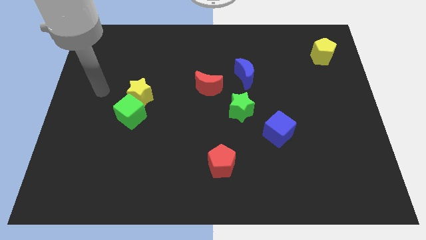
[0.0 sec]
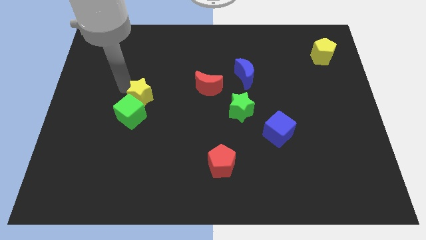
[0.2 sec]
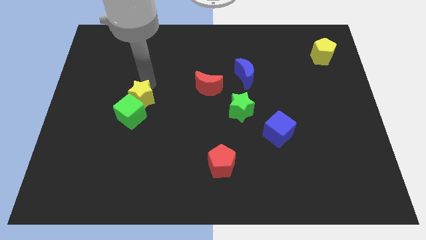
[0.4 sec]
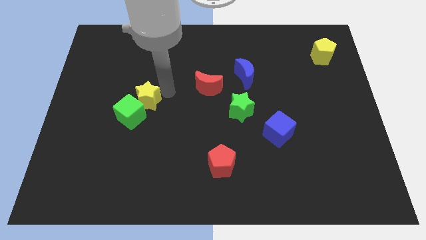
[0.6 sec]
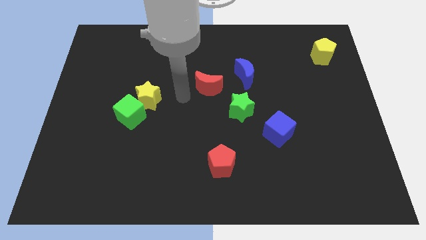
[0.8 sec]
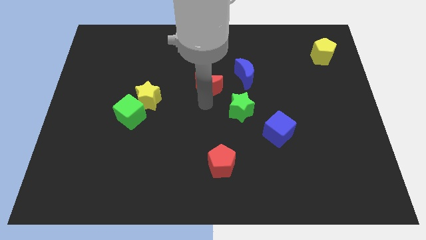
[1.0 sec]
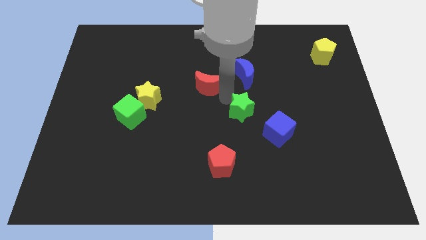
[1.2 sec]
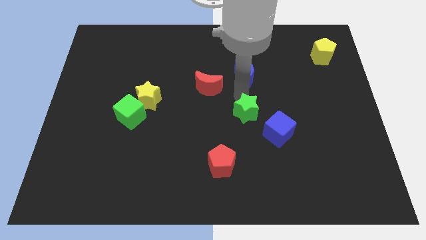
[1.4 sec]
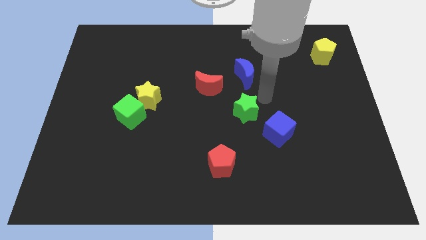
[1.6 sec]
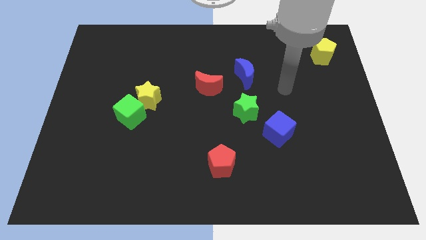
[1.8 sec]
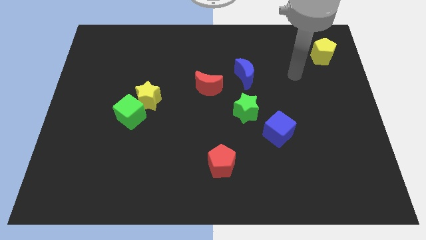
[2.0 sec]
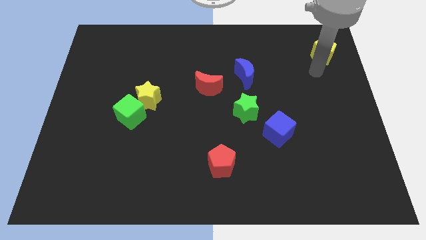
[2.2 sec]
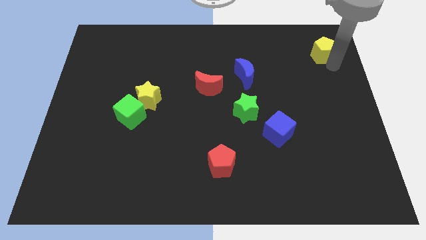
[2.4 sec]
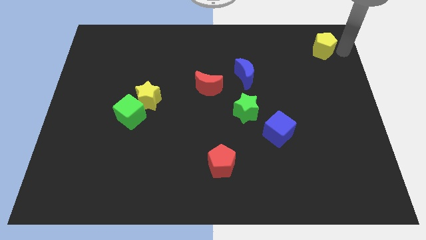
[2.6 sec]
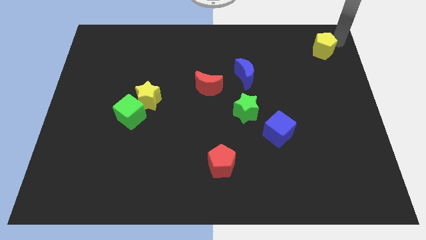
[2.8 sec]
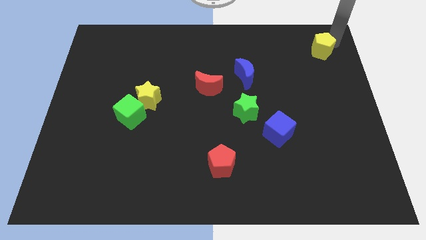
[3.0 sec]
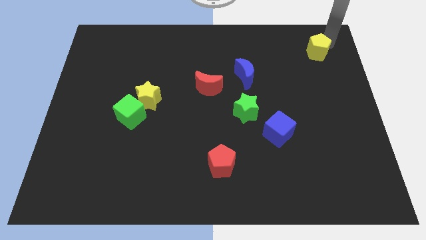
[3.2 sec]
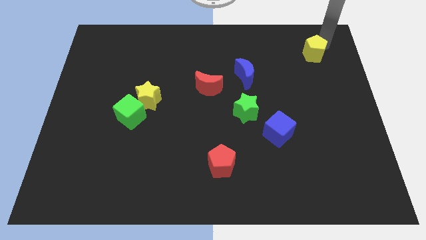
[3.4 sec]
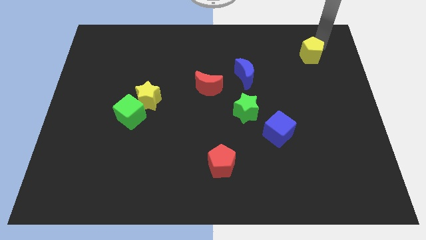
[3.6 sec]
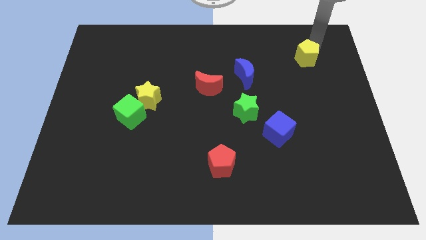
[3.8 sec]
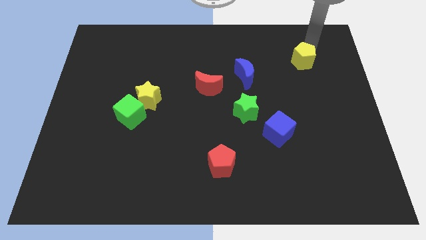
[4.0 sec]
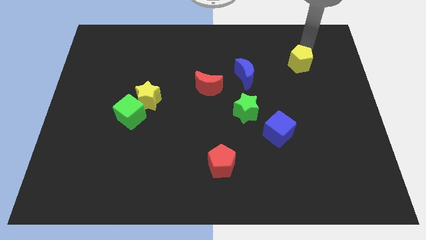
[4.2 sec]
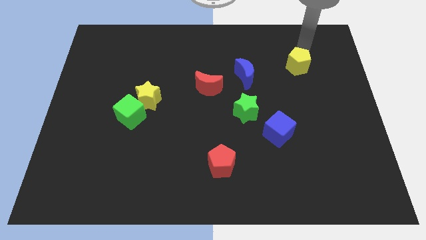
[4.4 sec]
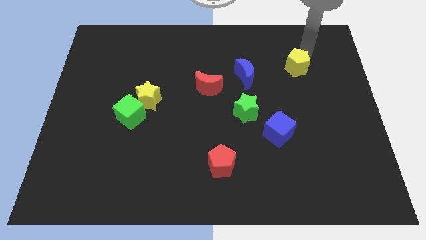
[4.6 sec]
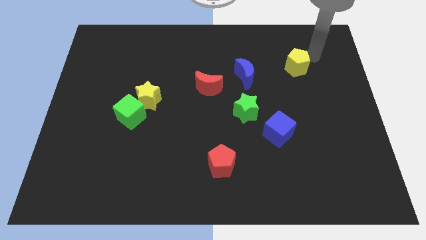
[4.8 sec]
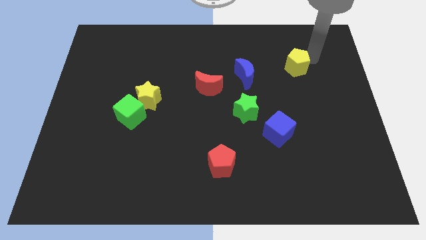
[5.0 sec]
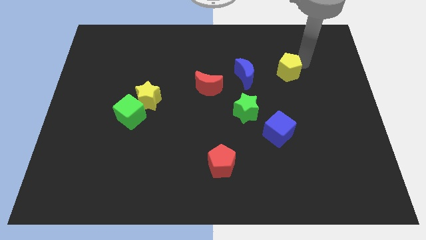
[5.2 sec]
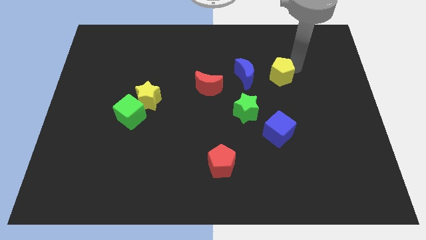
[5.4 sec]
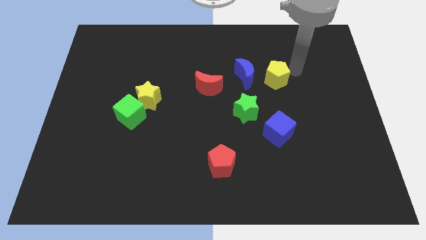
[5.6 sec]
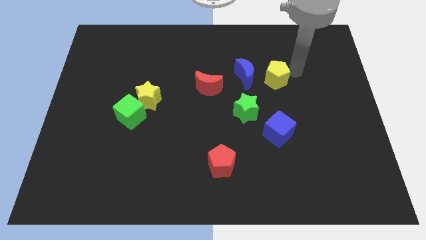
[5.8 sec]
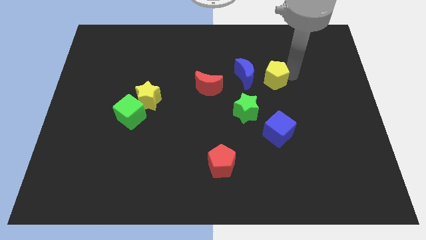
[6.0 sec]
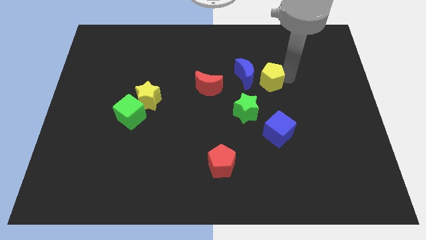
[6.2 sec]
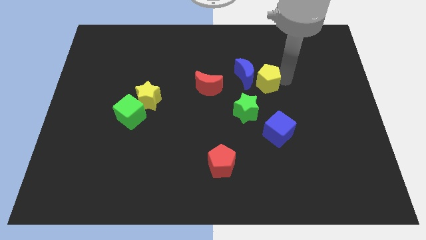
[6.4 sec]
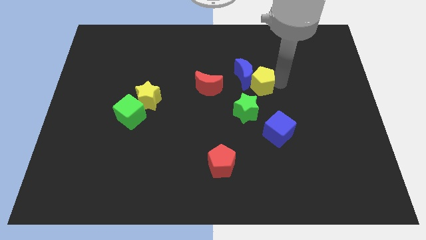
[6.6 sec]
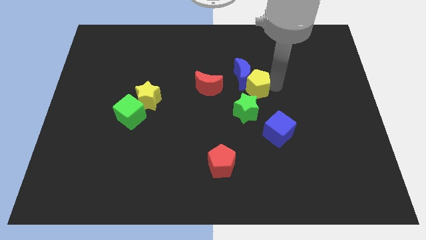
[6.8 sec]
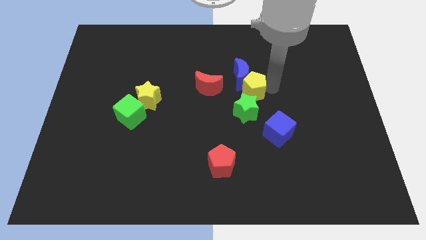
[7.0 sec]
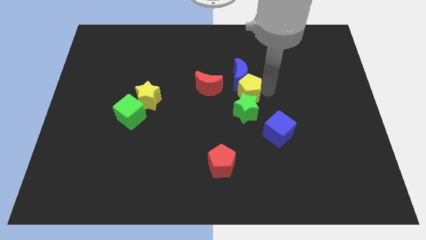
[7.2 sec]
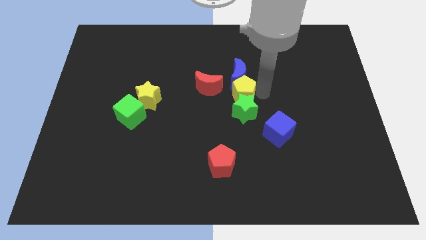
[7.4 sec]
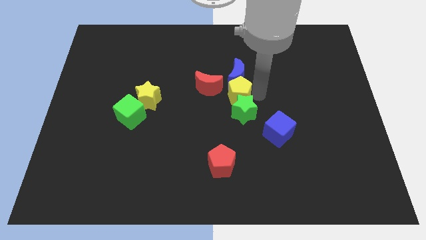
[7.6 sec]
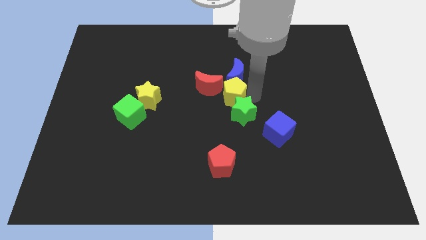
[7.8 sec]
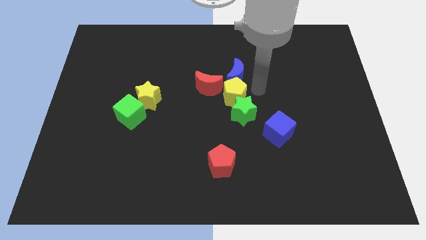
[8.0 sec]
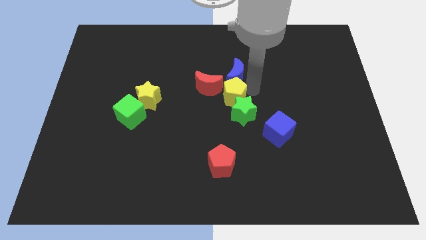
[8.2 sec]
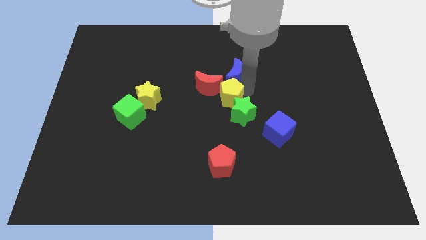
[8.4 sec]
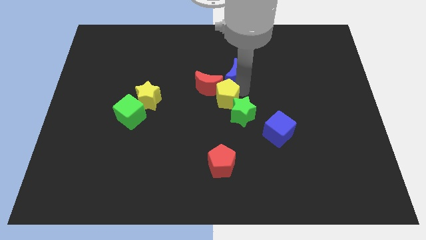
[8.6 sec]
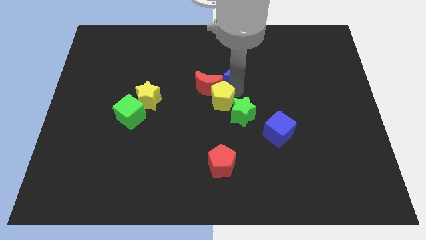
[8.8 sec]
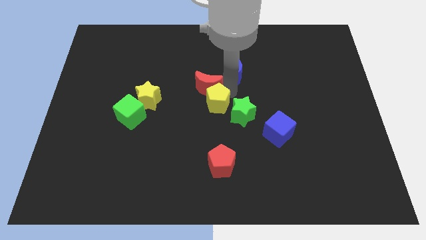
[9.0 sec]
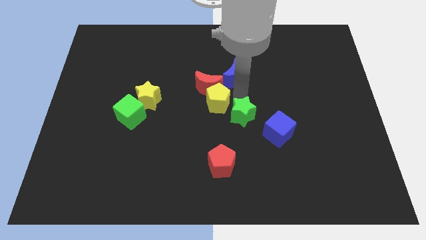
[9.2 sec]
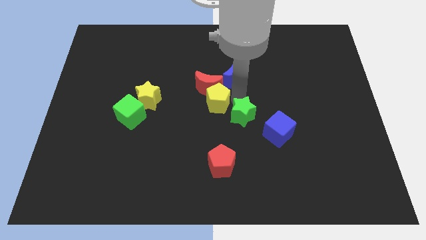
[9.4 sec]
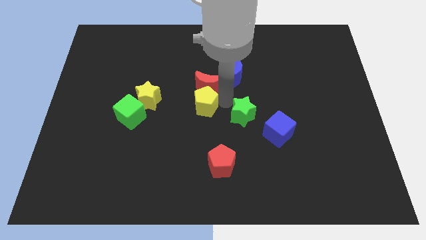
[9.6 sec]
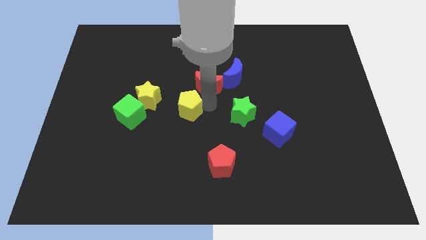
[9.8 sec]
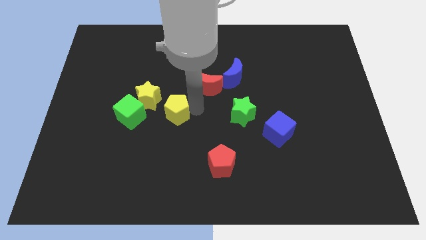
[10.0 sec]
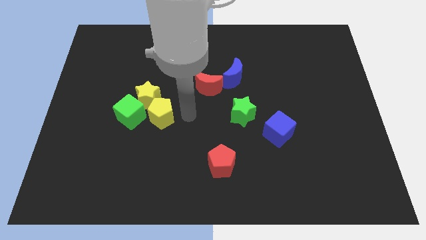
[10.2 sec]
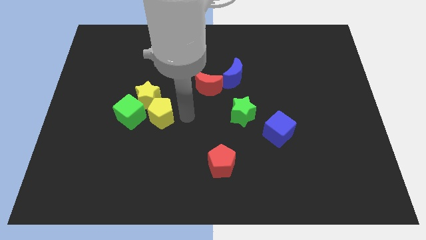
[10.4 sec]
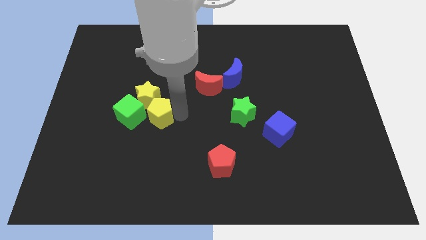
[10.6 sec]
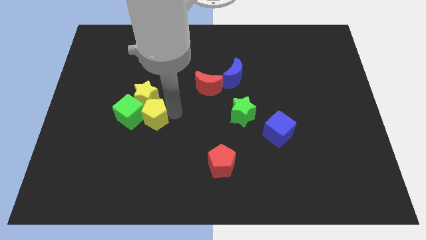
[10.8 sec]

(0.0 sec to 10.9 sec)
slide the yellow pentagon next to the green cube

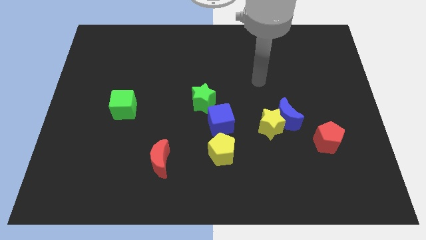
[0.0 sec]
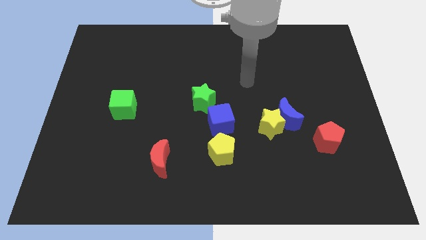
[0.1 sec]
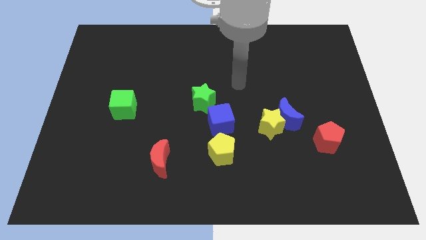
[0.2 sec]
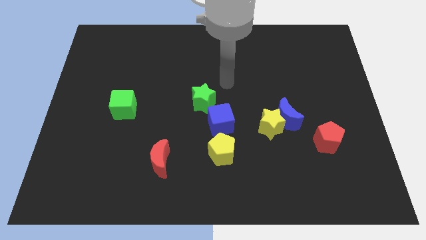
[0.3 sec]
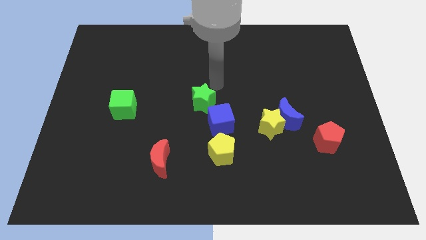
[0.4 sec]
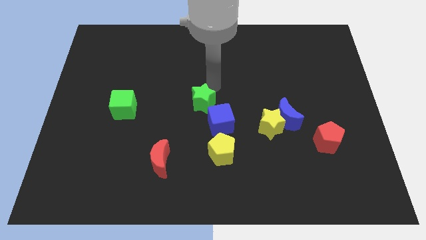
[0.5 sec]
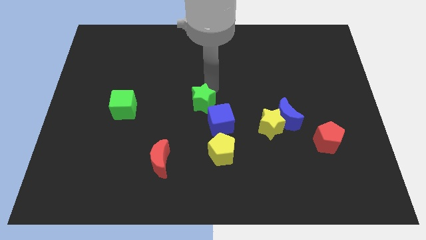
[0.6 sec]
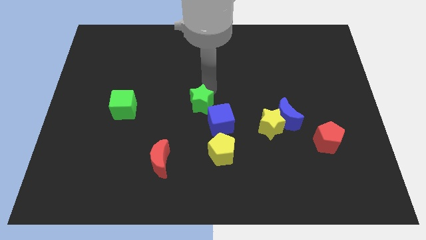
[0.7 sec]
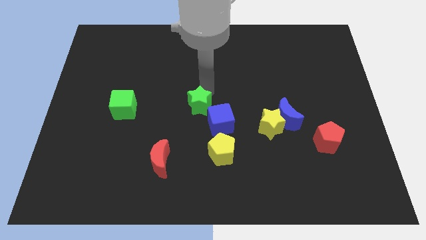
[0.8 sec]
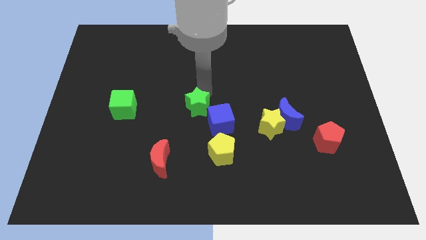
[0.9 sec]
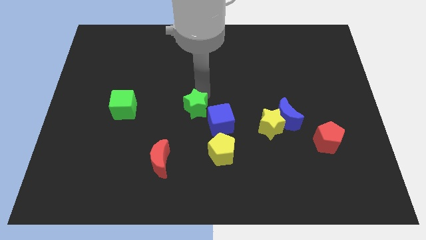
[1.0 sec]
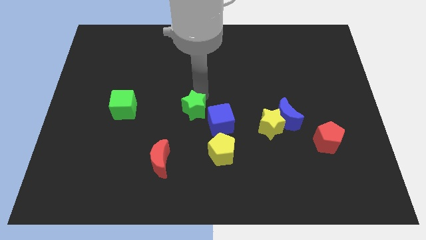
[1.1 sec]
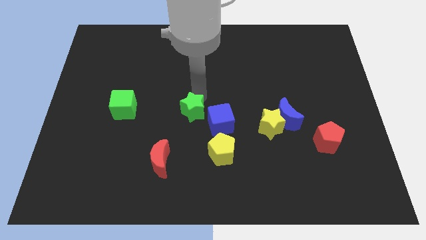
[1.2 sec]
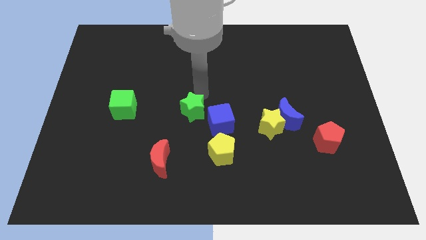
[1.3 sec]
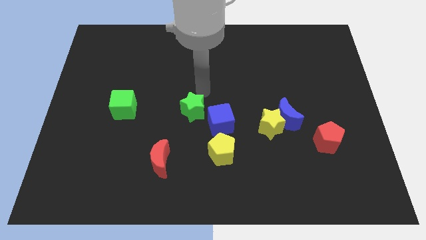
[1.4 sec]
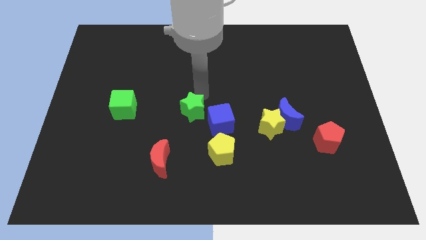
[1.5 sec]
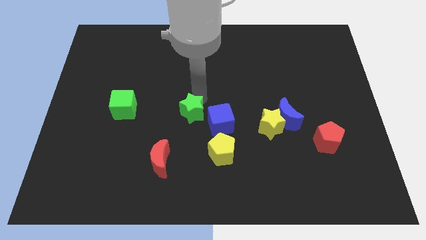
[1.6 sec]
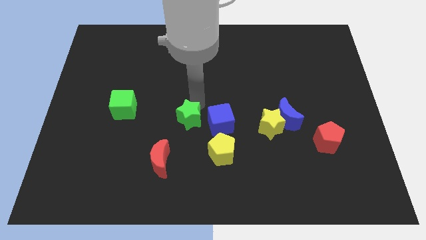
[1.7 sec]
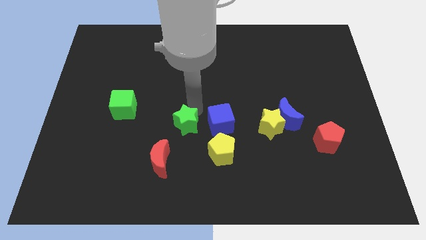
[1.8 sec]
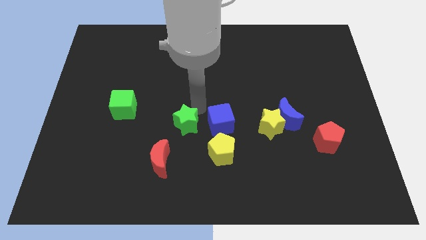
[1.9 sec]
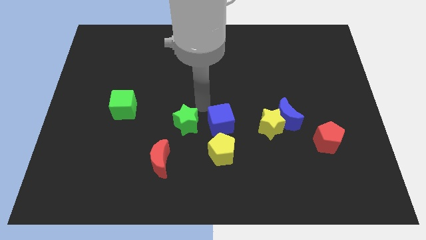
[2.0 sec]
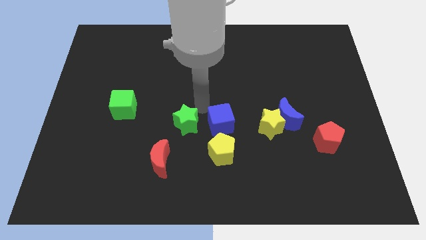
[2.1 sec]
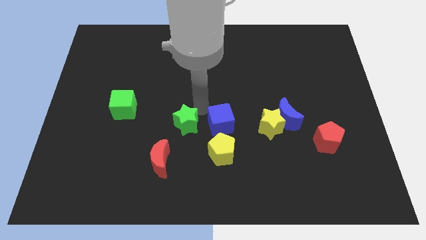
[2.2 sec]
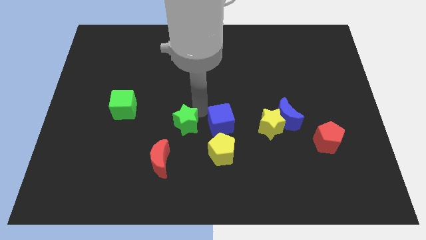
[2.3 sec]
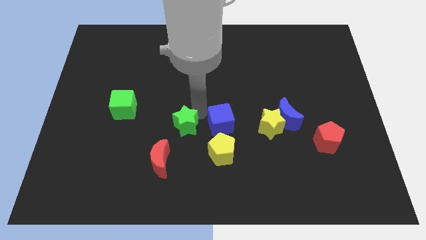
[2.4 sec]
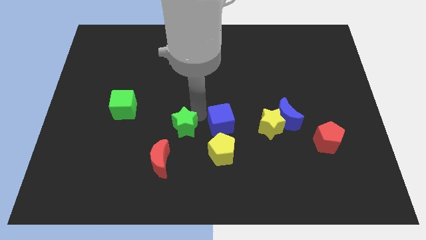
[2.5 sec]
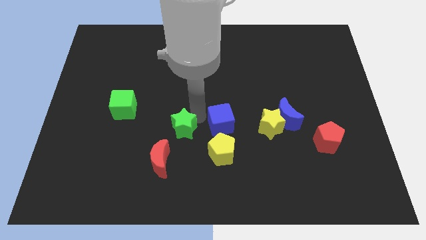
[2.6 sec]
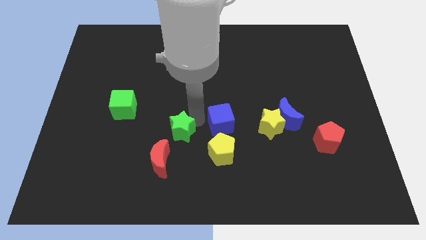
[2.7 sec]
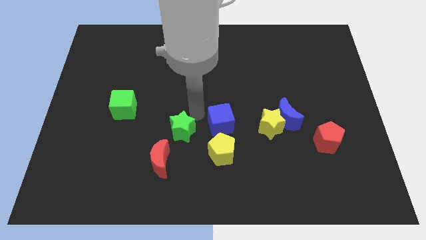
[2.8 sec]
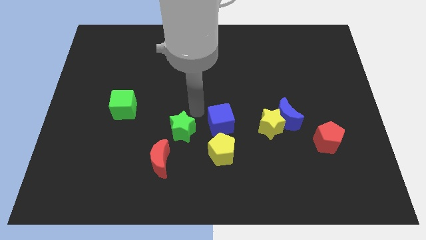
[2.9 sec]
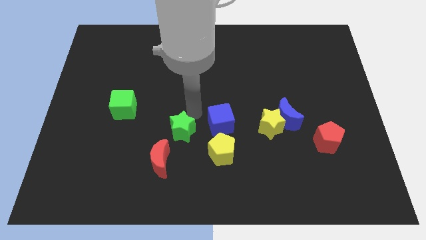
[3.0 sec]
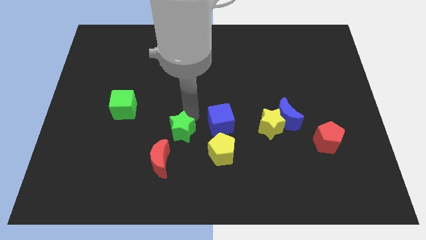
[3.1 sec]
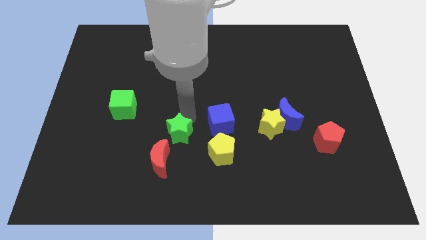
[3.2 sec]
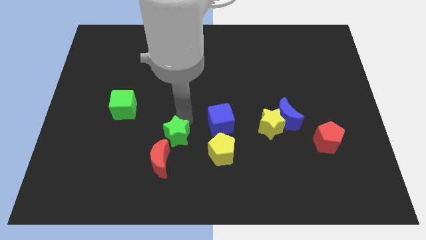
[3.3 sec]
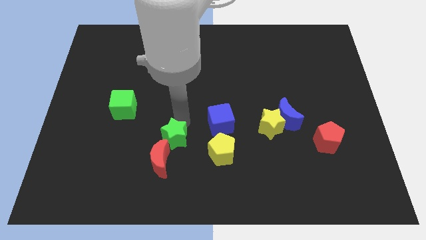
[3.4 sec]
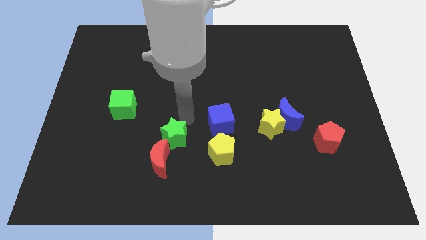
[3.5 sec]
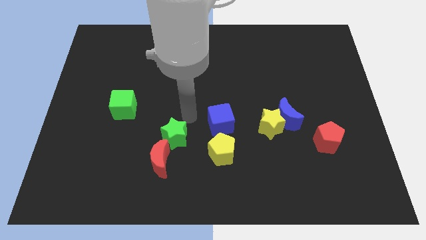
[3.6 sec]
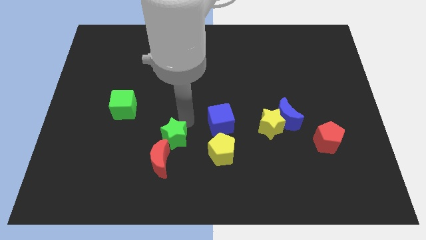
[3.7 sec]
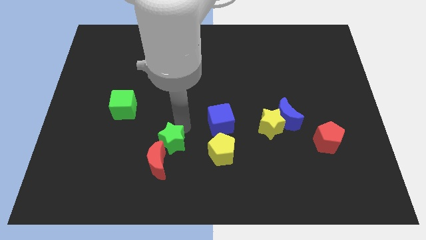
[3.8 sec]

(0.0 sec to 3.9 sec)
put the green star to the red moon
